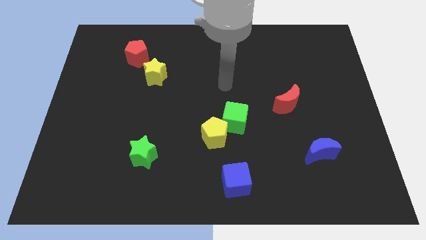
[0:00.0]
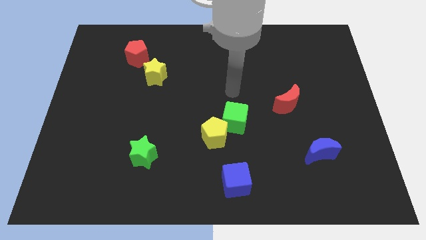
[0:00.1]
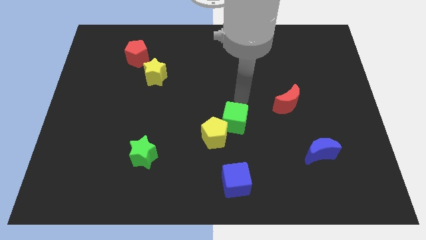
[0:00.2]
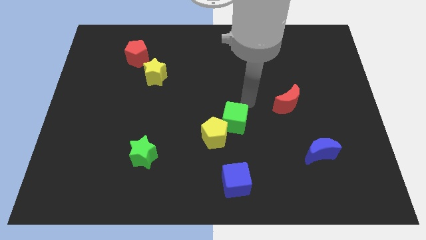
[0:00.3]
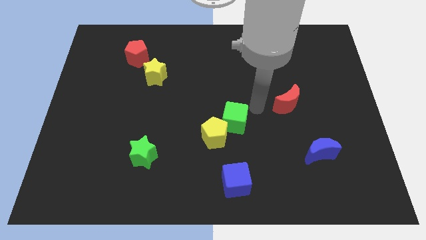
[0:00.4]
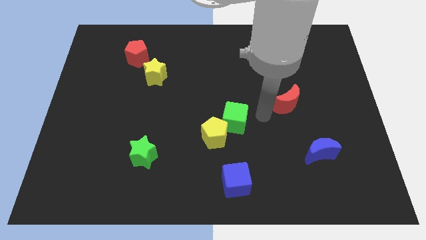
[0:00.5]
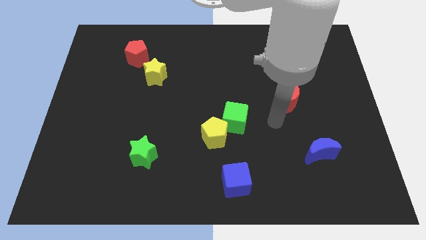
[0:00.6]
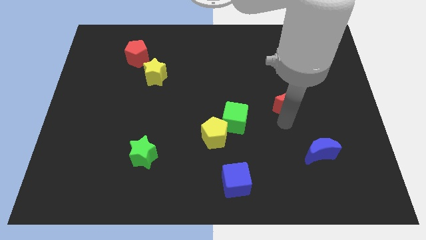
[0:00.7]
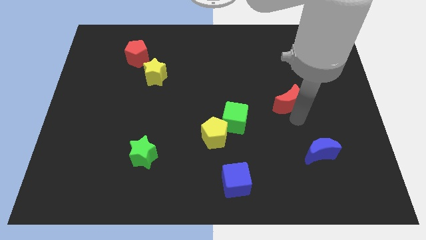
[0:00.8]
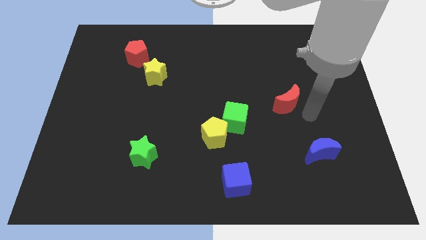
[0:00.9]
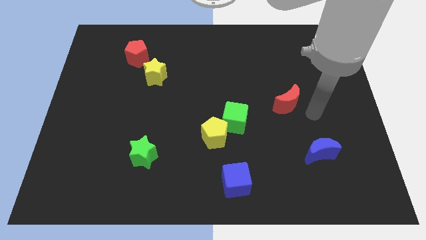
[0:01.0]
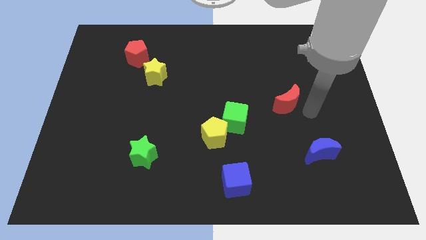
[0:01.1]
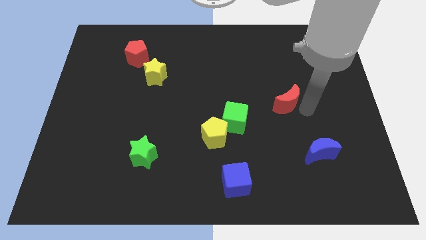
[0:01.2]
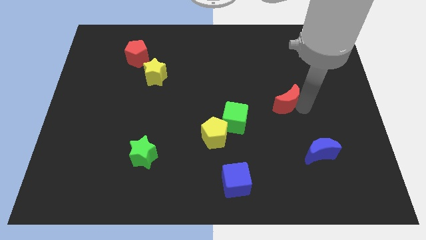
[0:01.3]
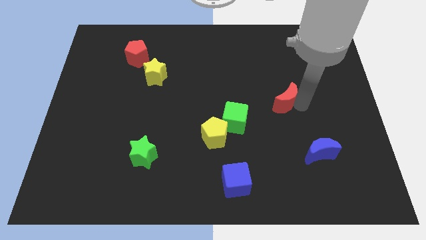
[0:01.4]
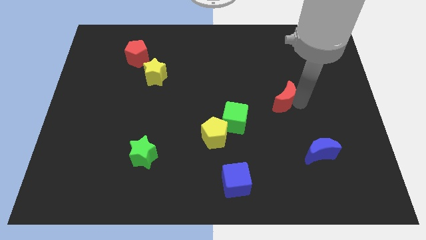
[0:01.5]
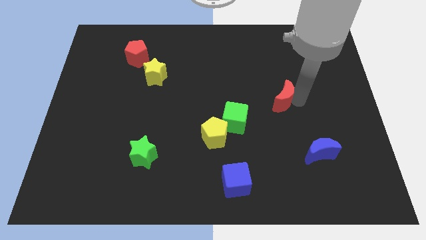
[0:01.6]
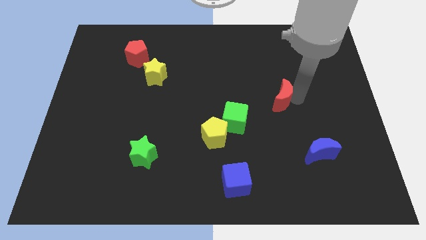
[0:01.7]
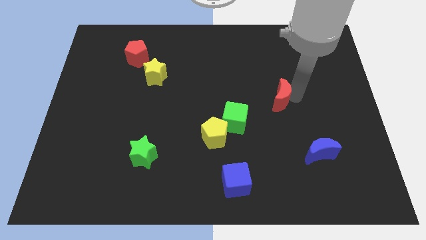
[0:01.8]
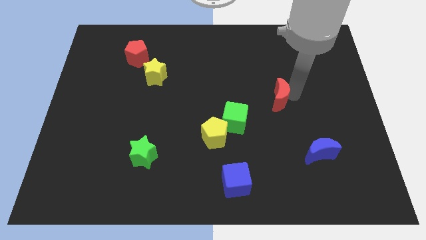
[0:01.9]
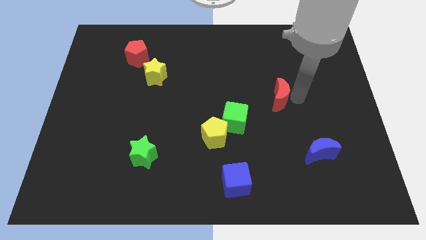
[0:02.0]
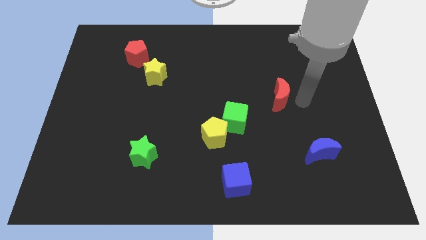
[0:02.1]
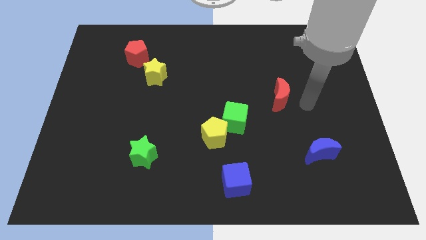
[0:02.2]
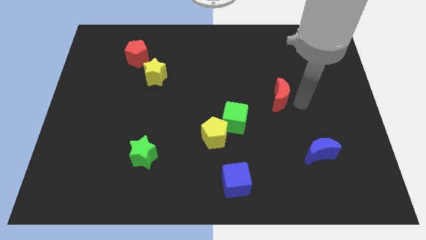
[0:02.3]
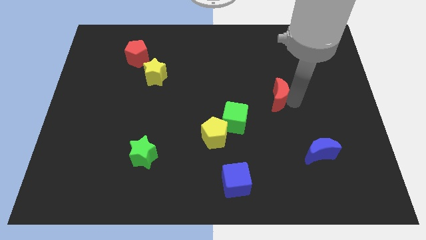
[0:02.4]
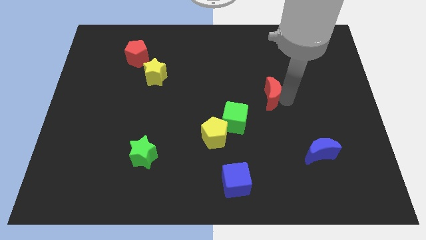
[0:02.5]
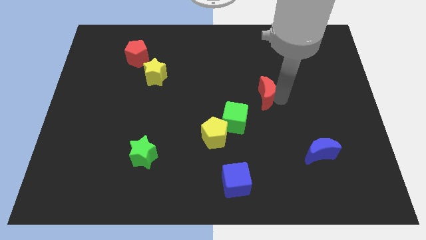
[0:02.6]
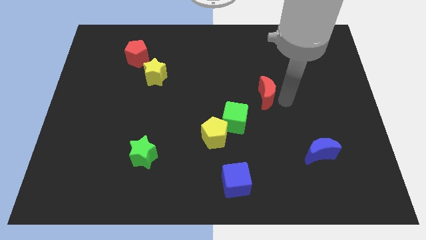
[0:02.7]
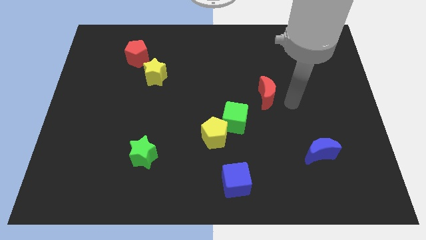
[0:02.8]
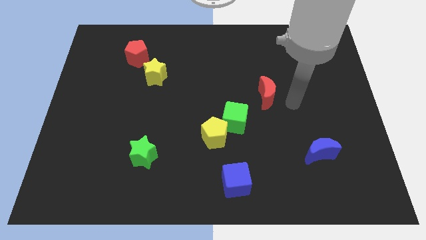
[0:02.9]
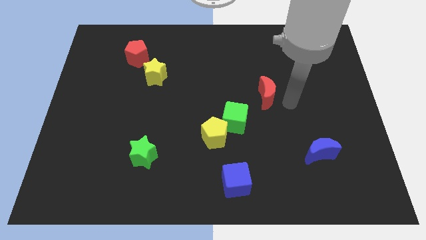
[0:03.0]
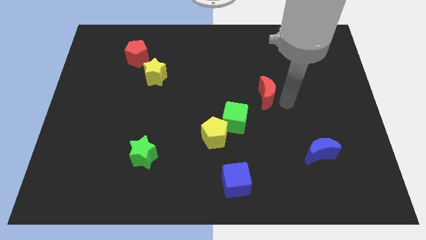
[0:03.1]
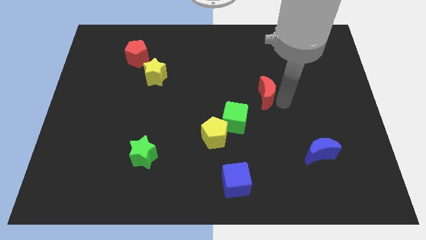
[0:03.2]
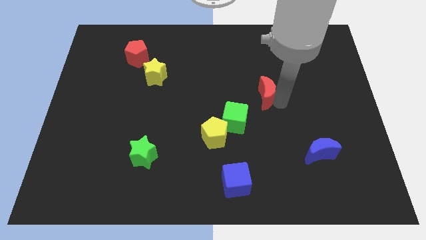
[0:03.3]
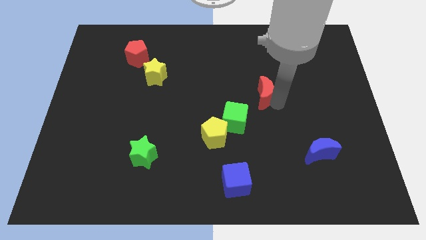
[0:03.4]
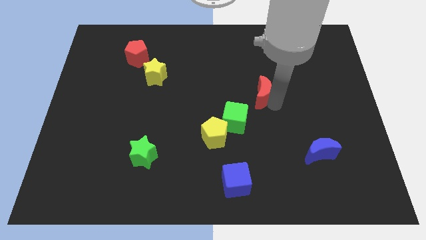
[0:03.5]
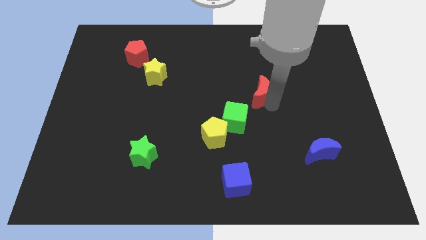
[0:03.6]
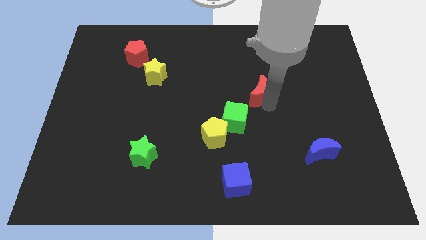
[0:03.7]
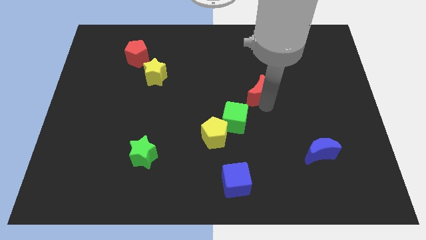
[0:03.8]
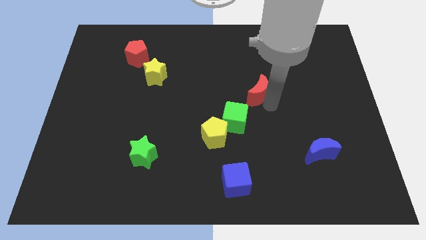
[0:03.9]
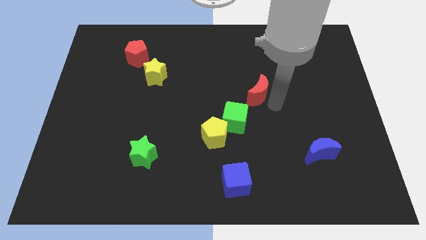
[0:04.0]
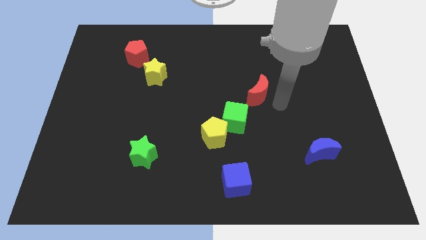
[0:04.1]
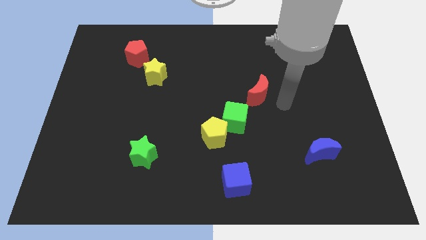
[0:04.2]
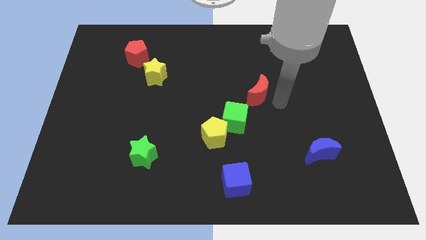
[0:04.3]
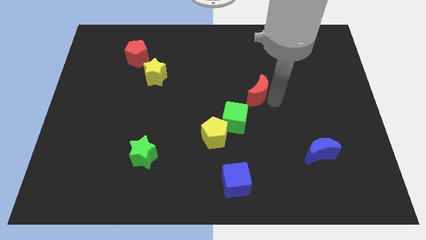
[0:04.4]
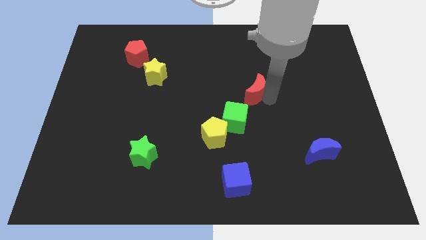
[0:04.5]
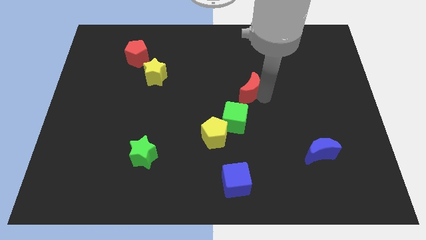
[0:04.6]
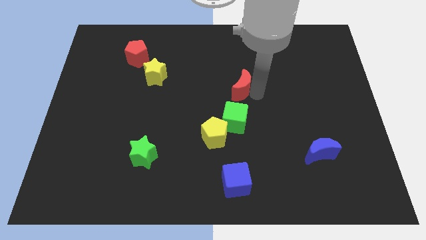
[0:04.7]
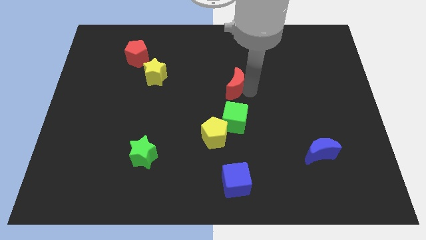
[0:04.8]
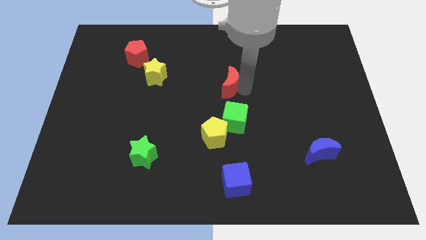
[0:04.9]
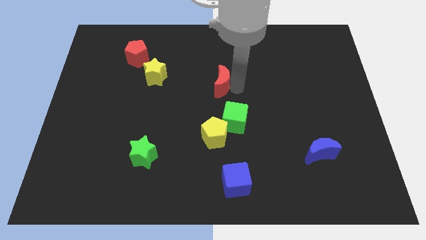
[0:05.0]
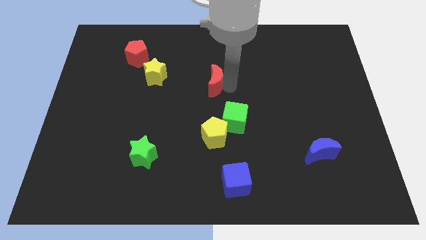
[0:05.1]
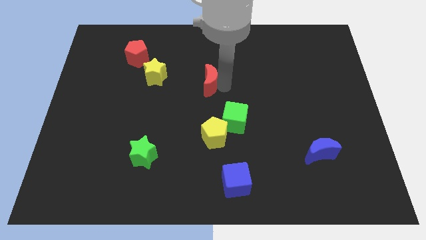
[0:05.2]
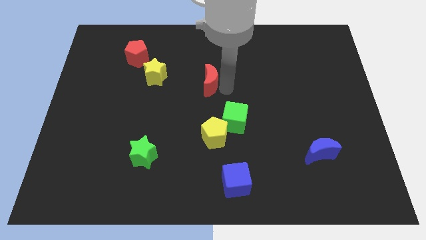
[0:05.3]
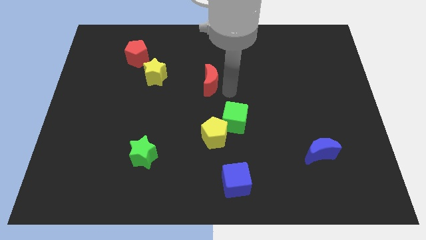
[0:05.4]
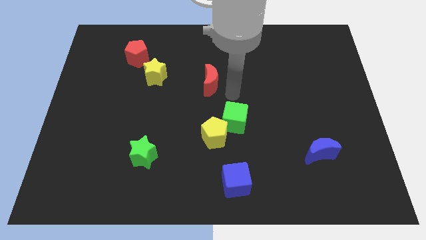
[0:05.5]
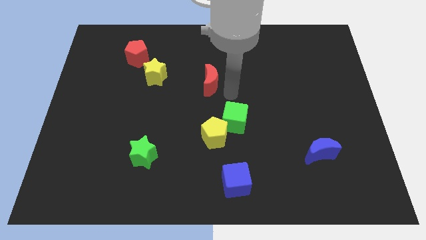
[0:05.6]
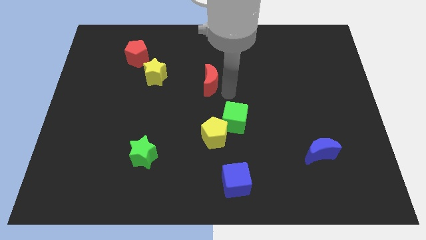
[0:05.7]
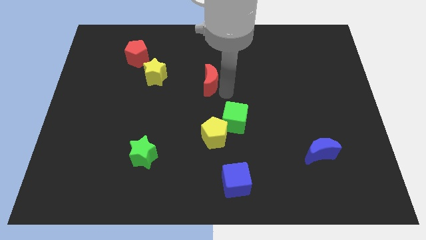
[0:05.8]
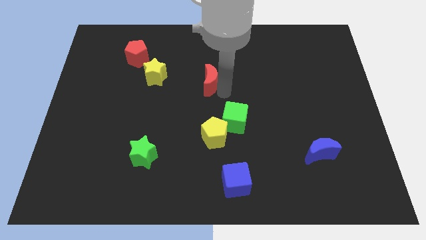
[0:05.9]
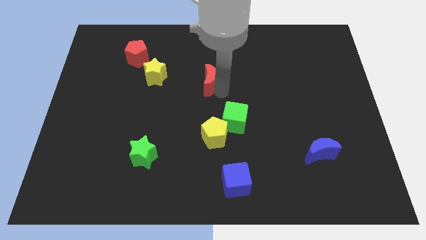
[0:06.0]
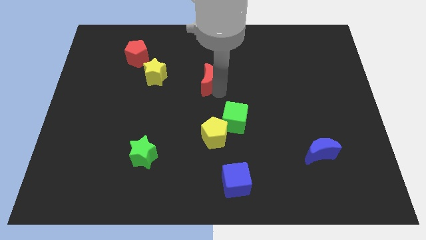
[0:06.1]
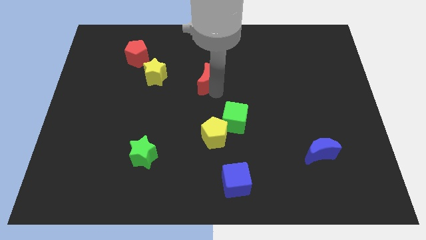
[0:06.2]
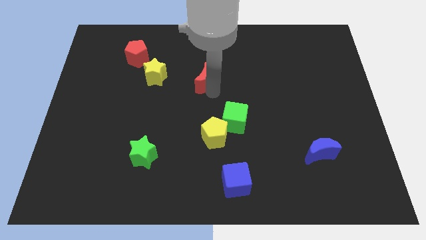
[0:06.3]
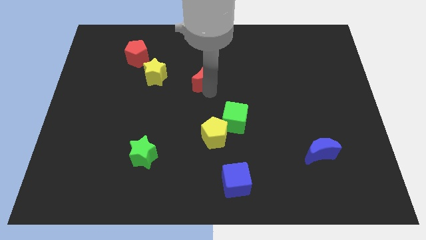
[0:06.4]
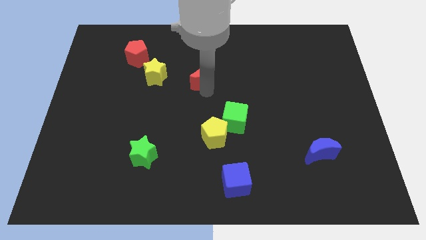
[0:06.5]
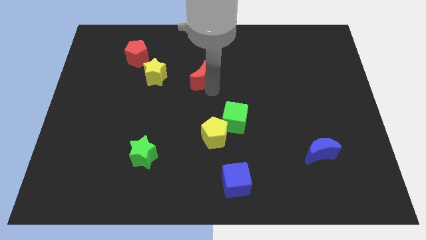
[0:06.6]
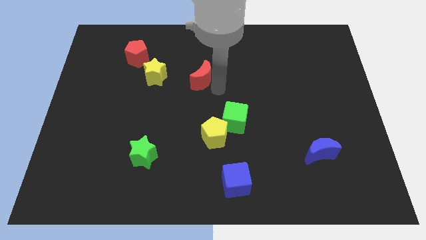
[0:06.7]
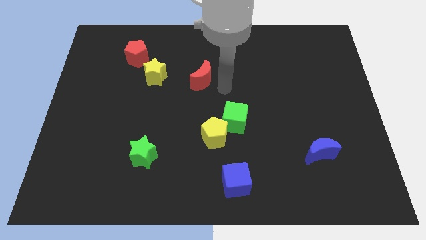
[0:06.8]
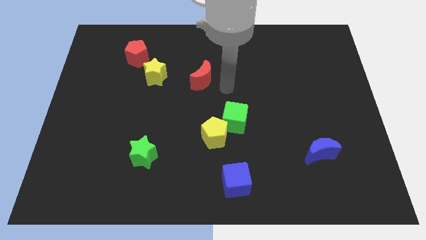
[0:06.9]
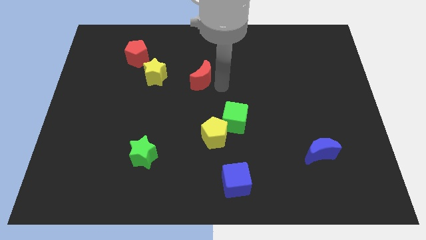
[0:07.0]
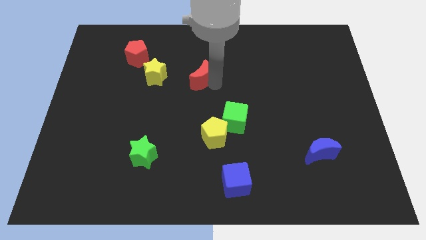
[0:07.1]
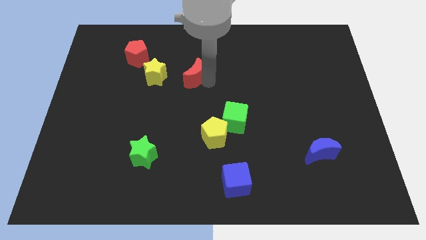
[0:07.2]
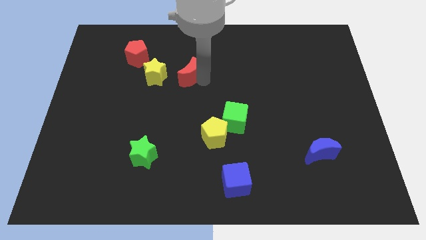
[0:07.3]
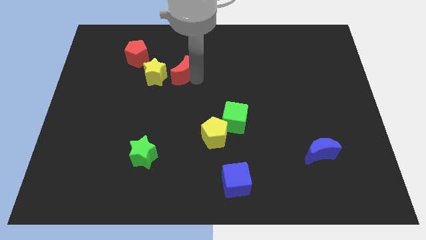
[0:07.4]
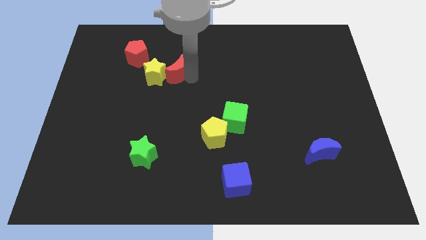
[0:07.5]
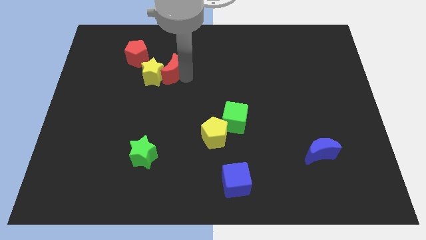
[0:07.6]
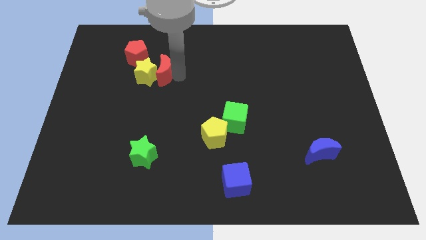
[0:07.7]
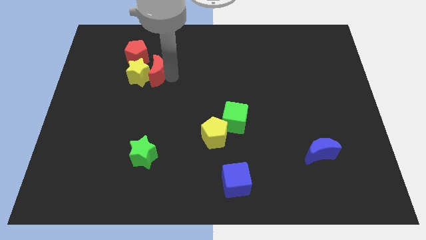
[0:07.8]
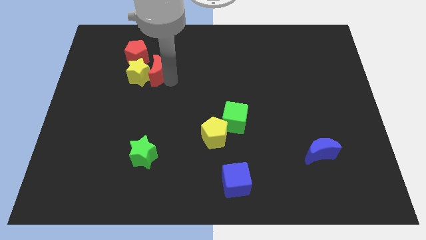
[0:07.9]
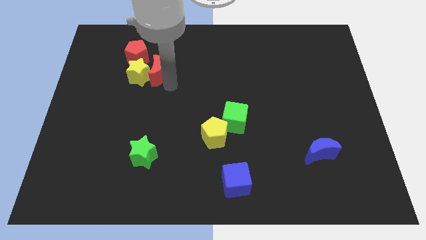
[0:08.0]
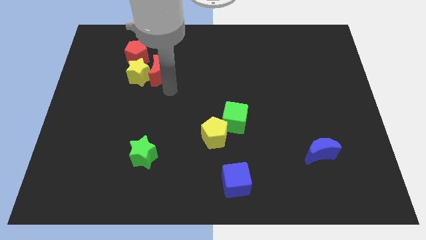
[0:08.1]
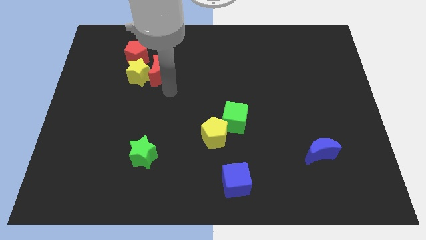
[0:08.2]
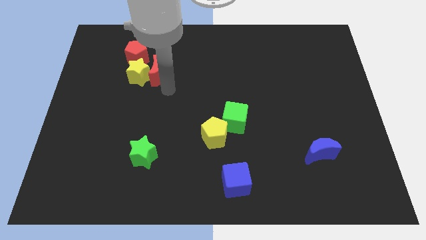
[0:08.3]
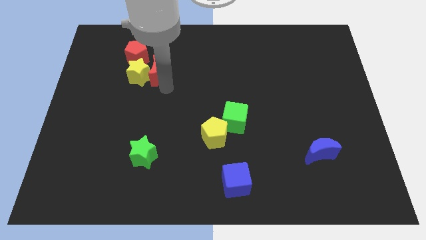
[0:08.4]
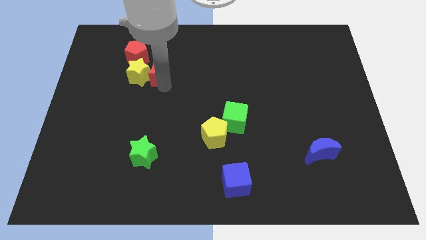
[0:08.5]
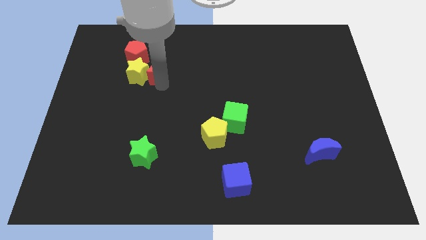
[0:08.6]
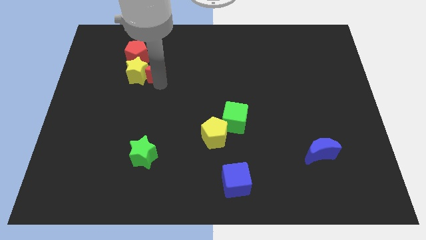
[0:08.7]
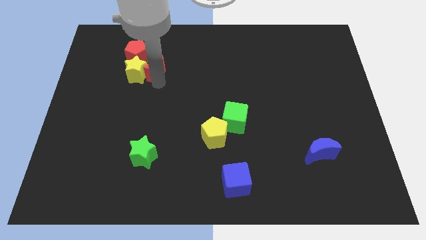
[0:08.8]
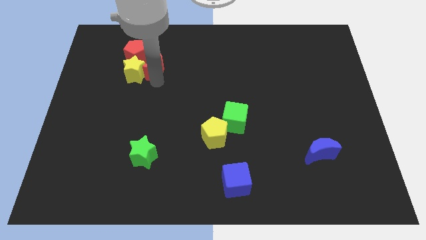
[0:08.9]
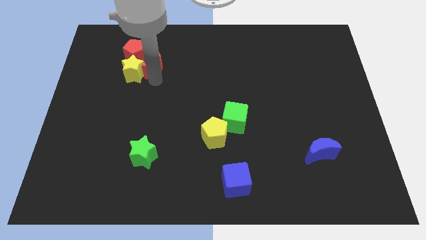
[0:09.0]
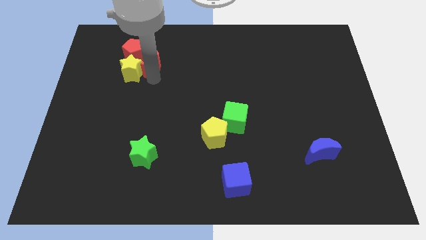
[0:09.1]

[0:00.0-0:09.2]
move the red moon next to the red pentagon
